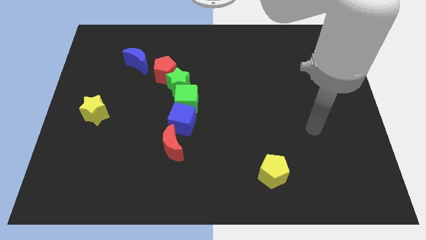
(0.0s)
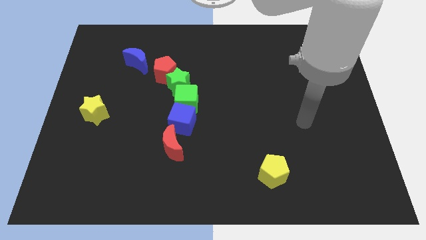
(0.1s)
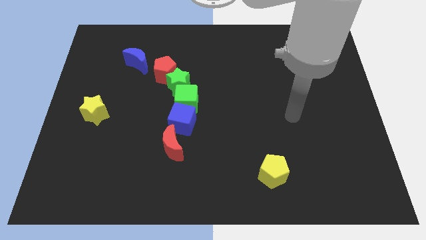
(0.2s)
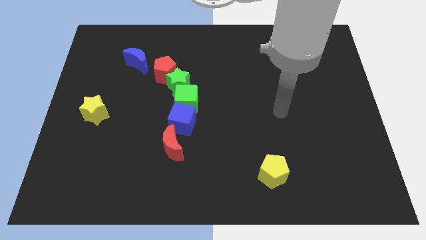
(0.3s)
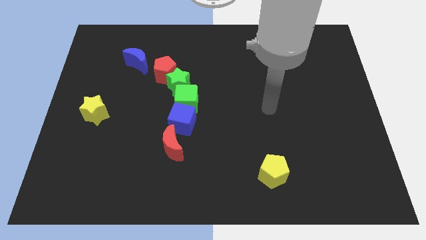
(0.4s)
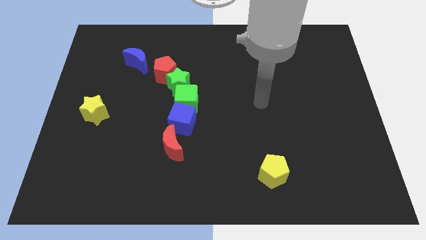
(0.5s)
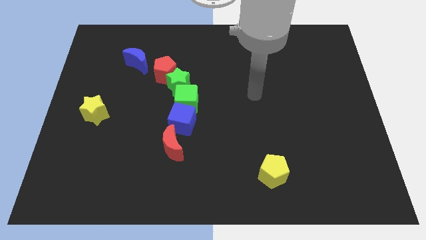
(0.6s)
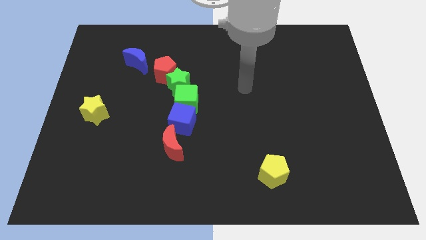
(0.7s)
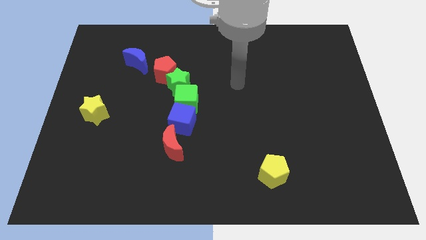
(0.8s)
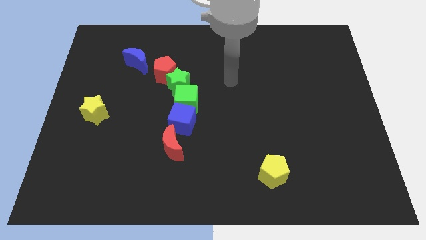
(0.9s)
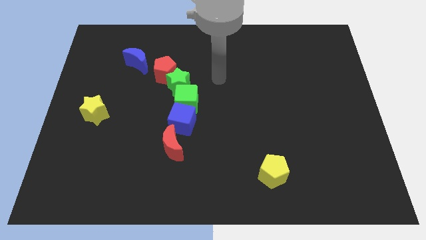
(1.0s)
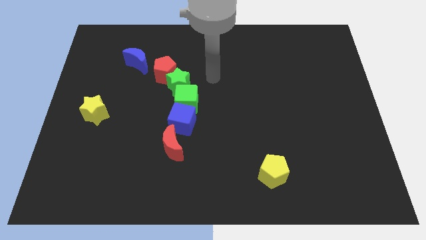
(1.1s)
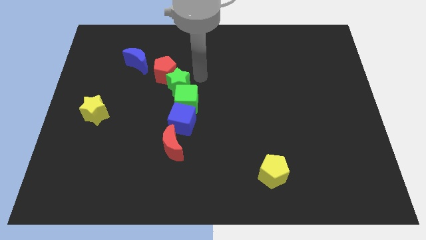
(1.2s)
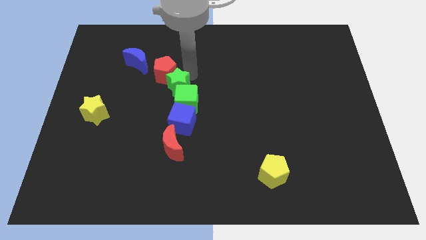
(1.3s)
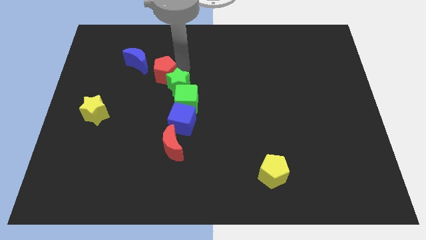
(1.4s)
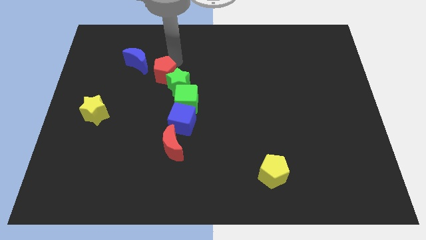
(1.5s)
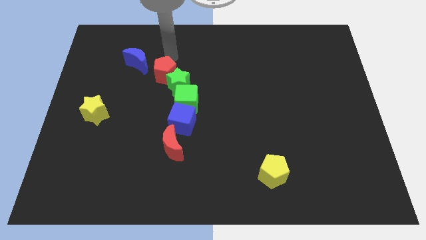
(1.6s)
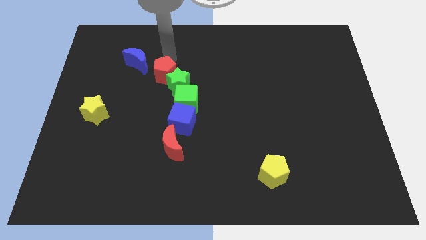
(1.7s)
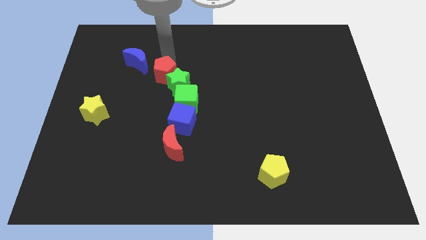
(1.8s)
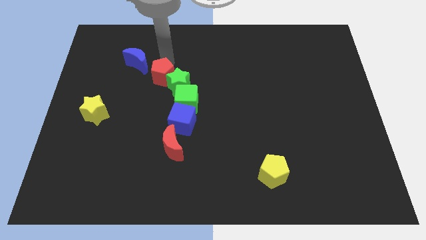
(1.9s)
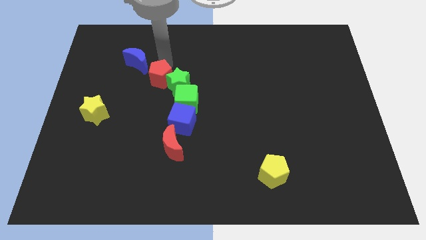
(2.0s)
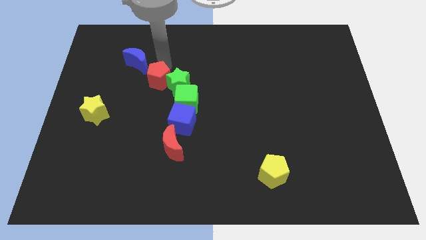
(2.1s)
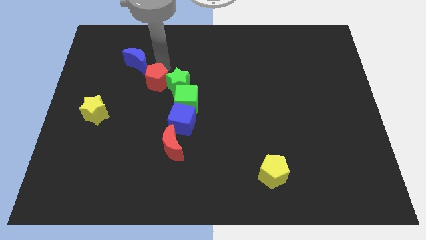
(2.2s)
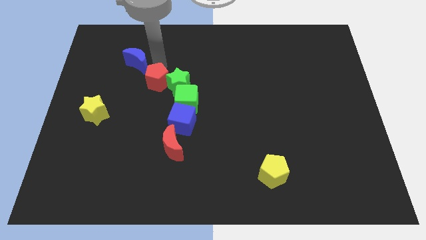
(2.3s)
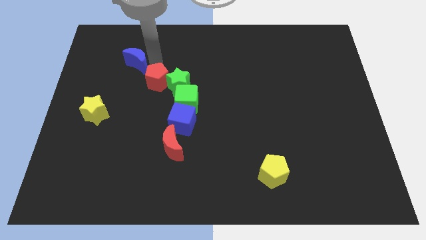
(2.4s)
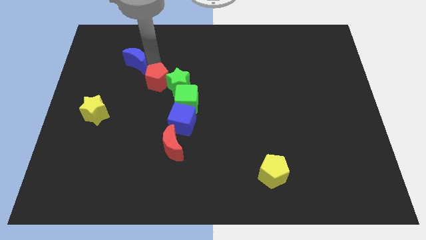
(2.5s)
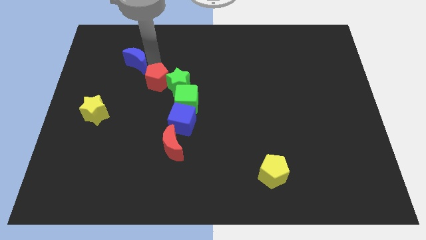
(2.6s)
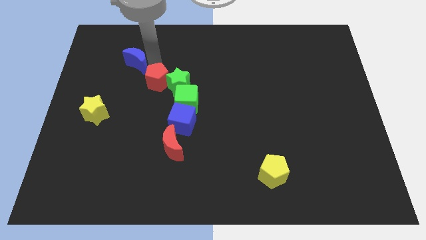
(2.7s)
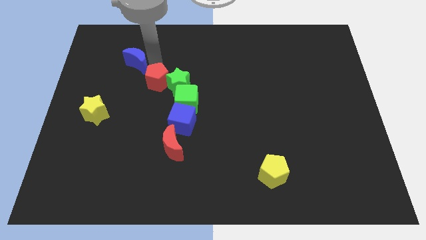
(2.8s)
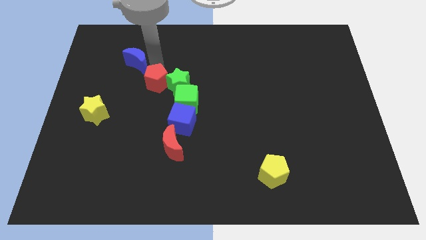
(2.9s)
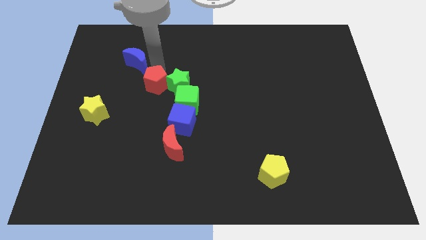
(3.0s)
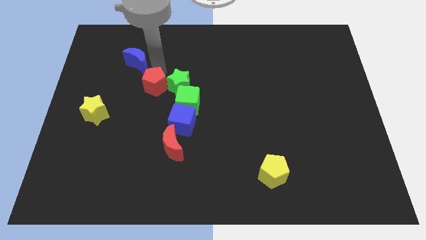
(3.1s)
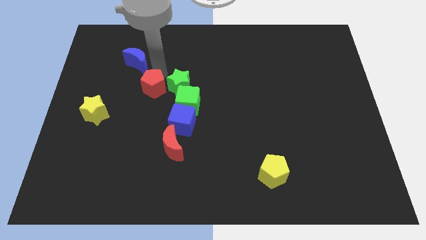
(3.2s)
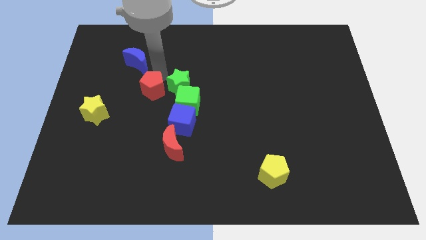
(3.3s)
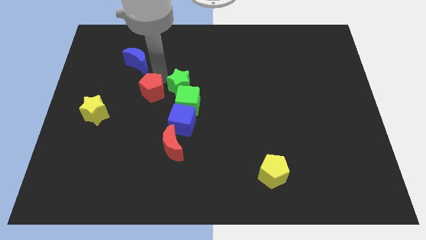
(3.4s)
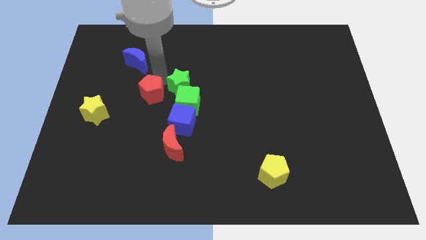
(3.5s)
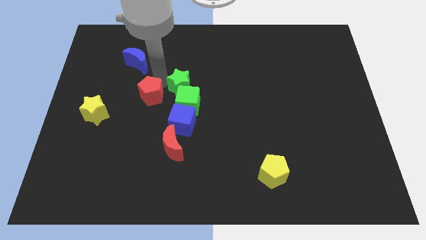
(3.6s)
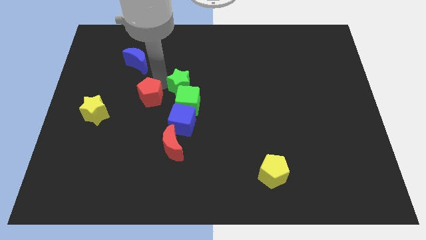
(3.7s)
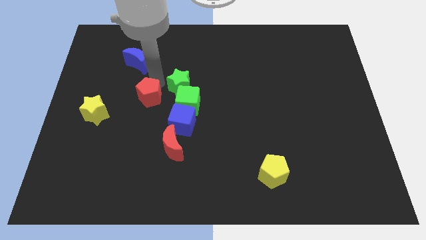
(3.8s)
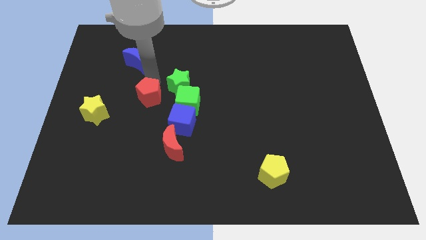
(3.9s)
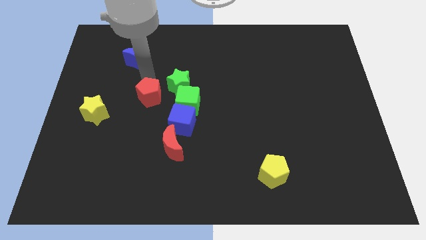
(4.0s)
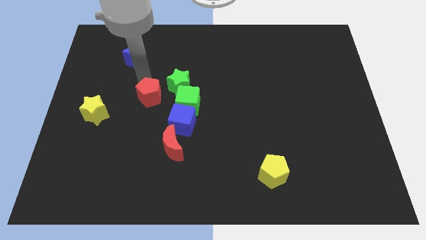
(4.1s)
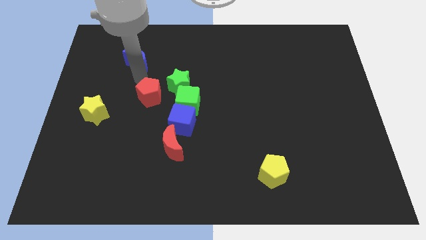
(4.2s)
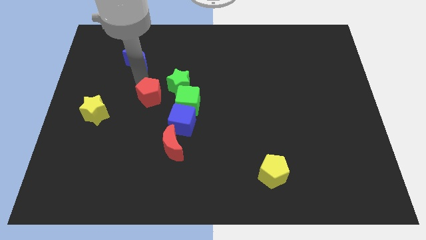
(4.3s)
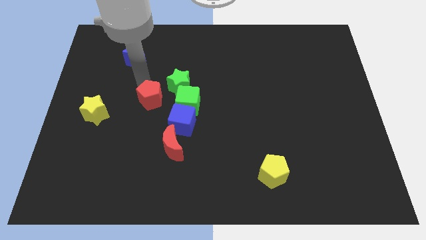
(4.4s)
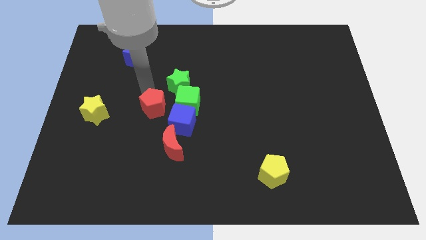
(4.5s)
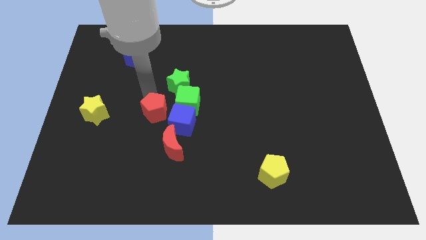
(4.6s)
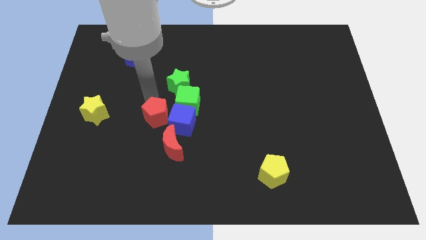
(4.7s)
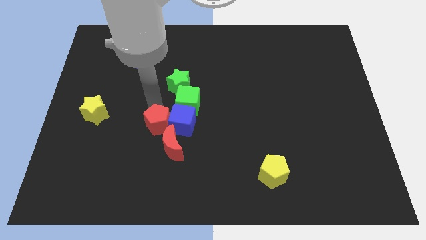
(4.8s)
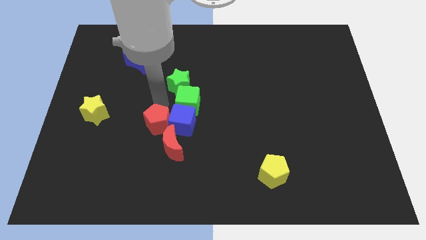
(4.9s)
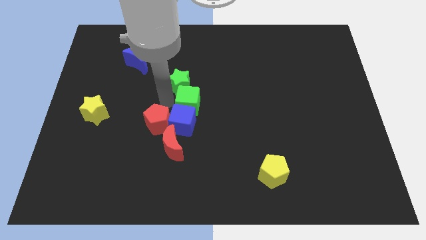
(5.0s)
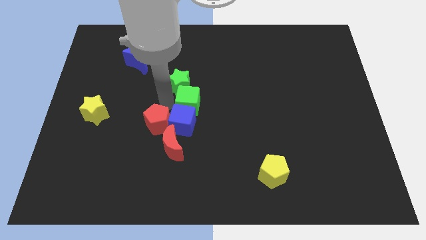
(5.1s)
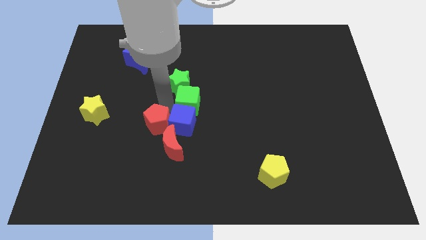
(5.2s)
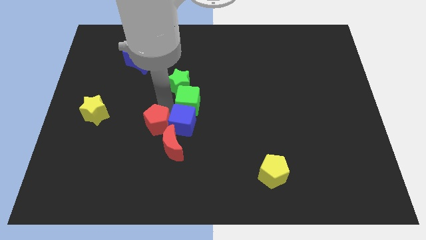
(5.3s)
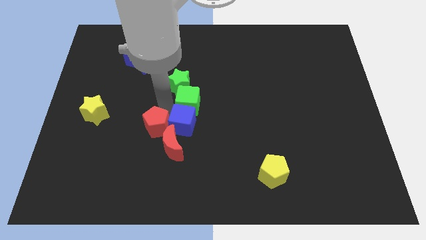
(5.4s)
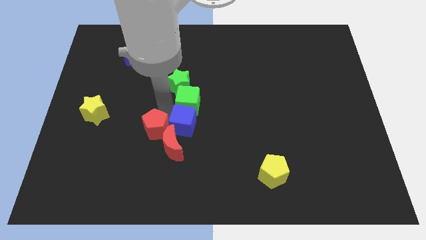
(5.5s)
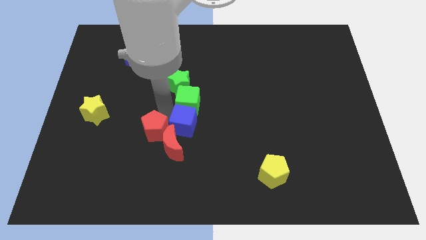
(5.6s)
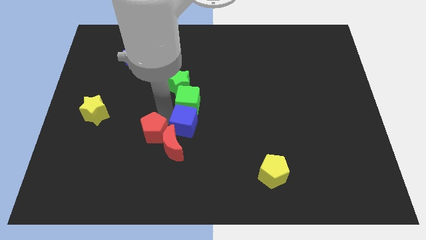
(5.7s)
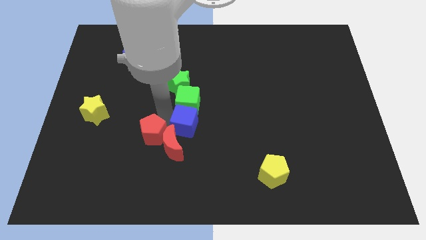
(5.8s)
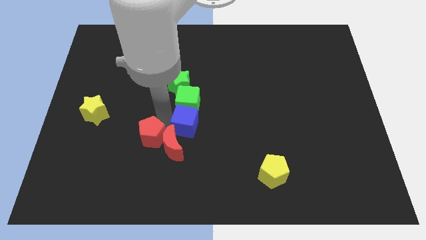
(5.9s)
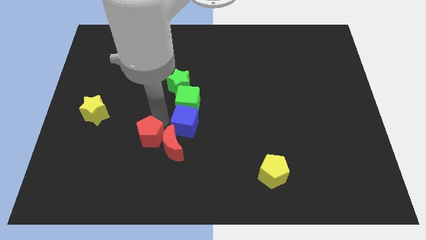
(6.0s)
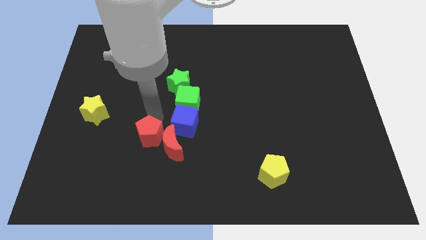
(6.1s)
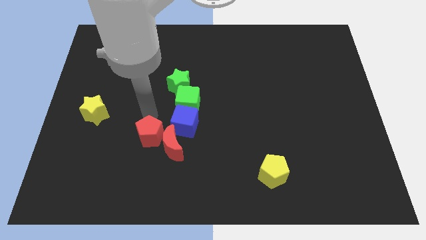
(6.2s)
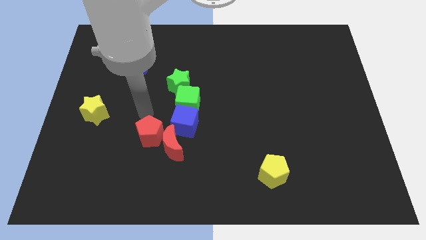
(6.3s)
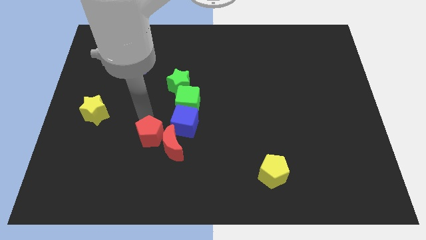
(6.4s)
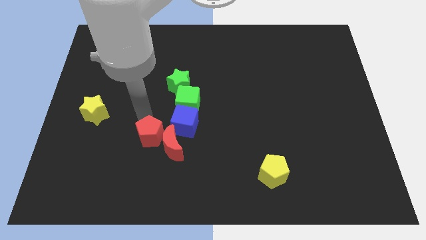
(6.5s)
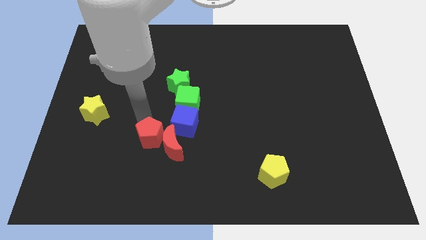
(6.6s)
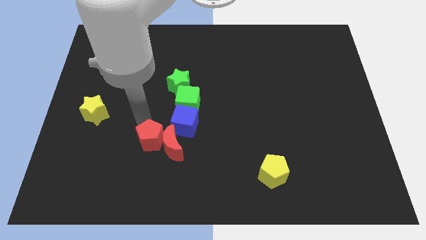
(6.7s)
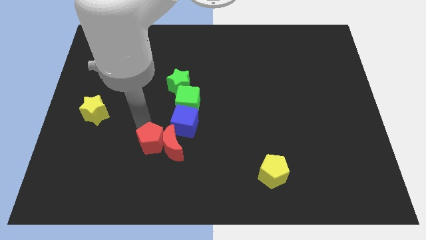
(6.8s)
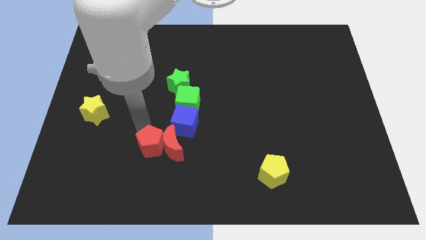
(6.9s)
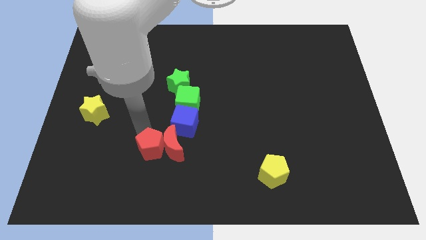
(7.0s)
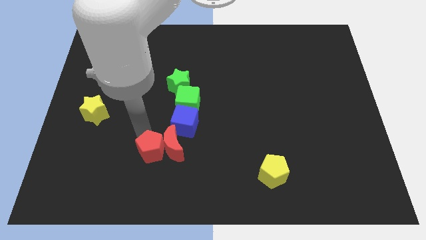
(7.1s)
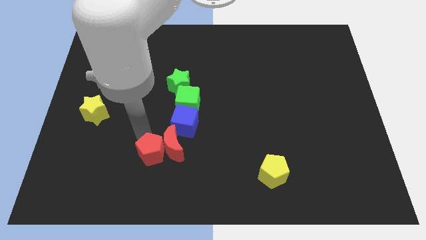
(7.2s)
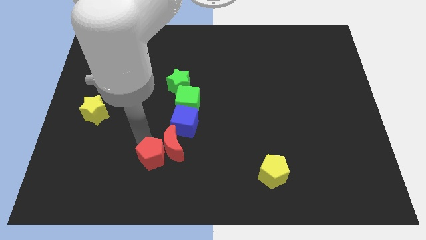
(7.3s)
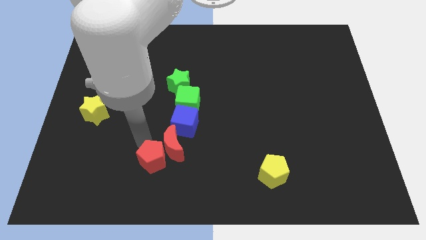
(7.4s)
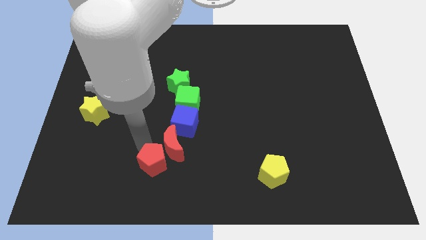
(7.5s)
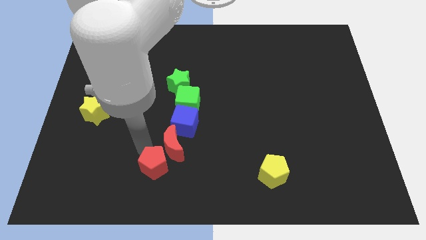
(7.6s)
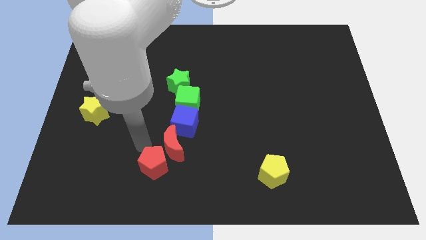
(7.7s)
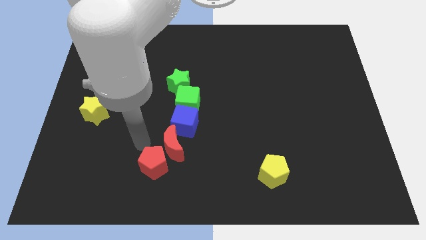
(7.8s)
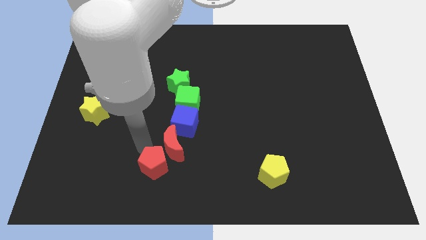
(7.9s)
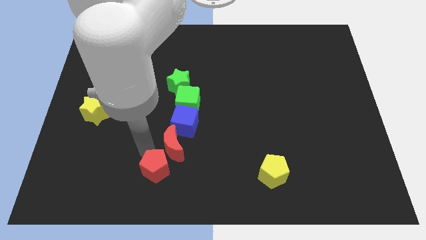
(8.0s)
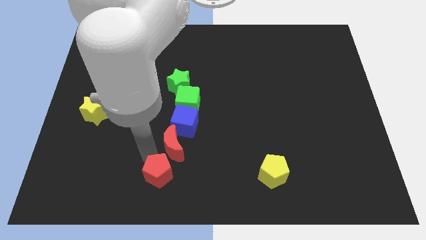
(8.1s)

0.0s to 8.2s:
push the red pentagon to the bottom
